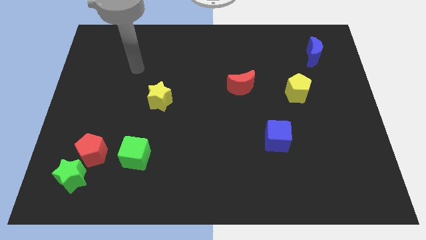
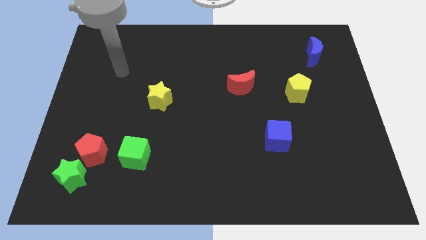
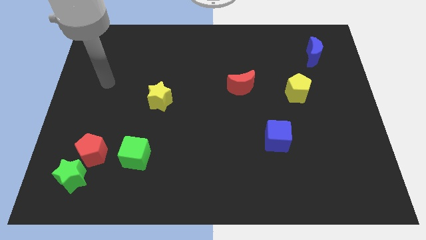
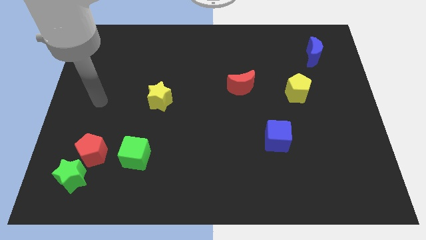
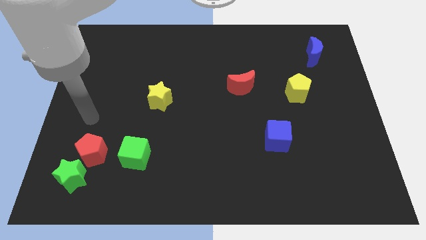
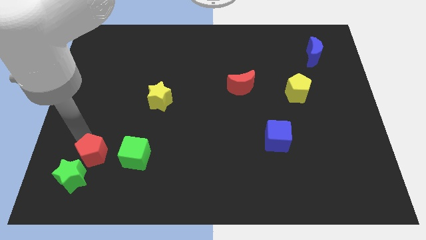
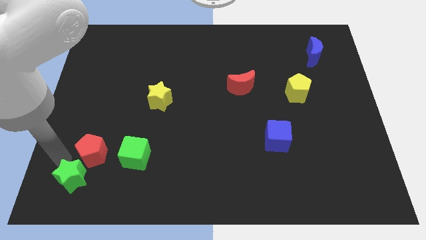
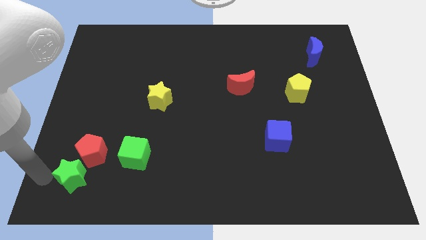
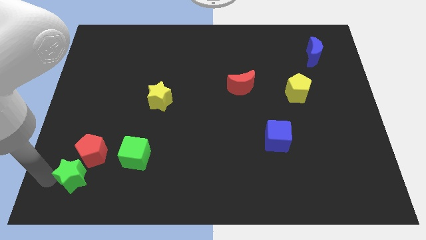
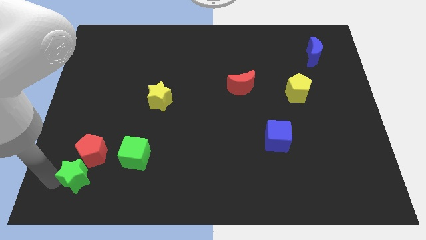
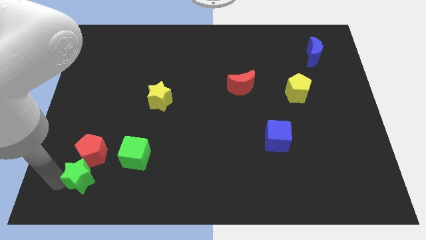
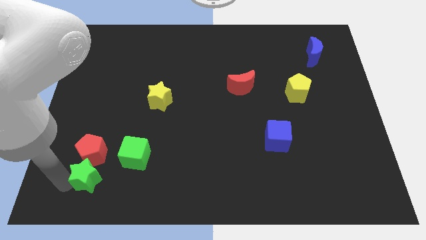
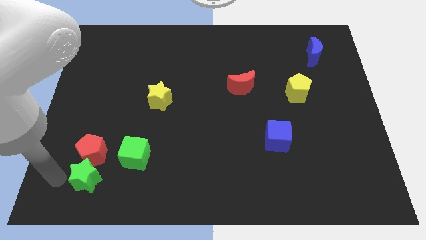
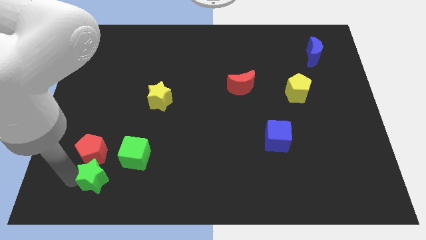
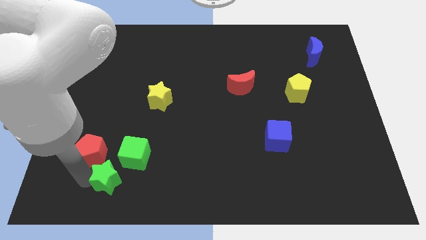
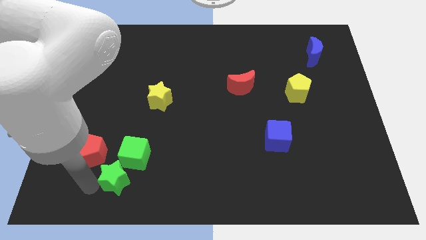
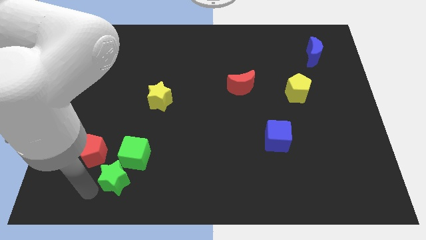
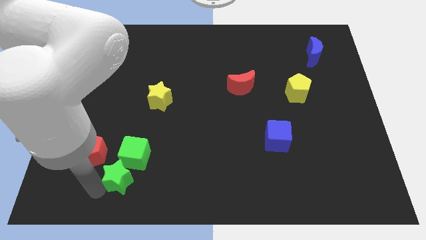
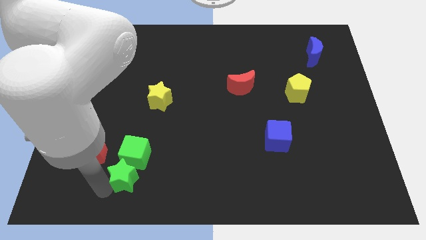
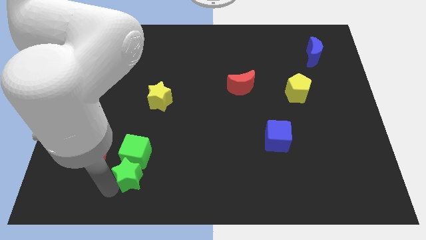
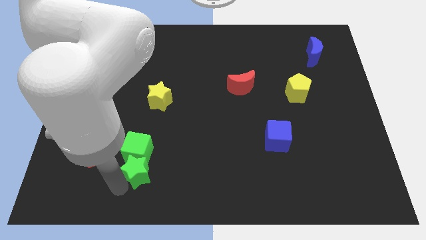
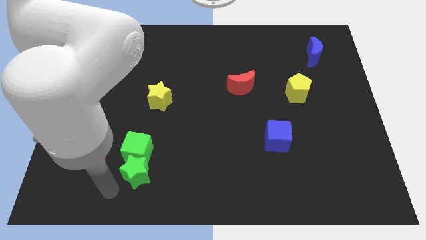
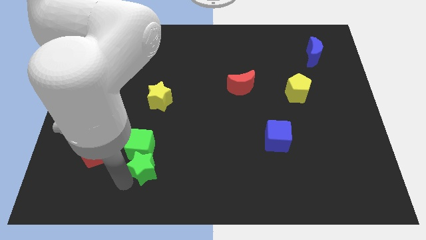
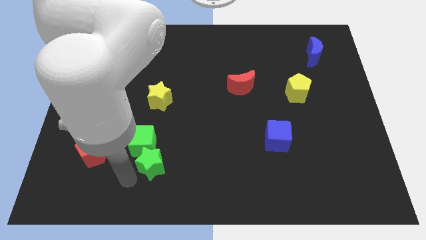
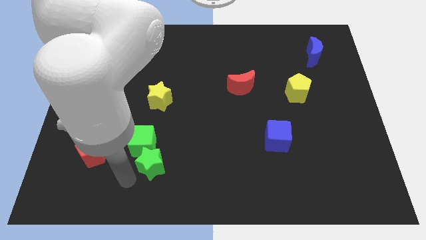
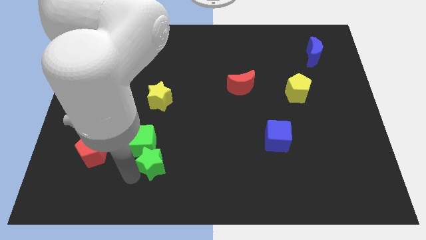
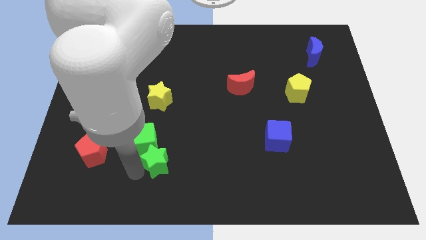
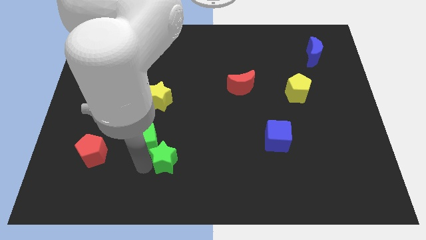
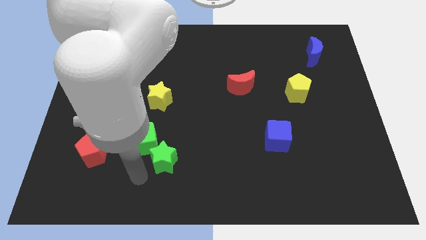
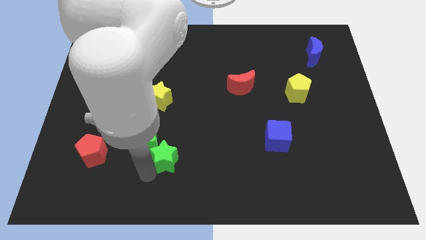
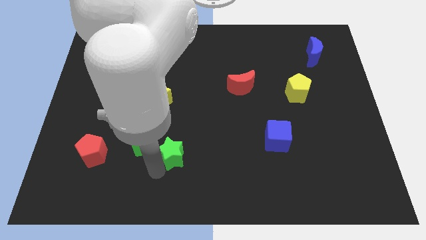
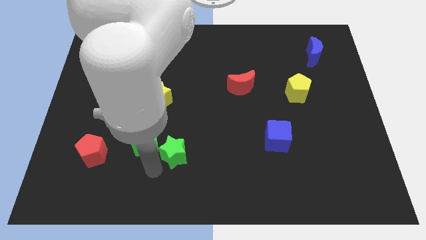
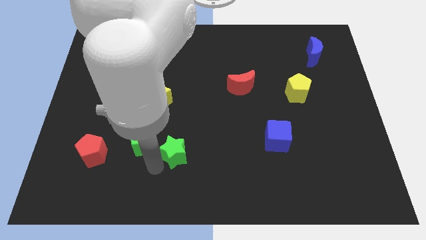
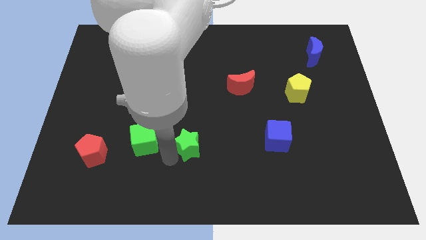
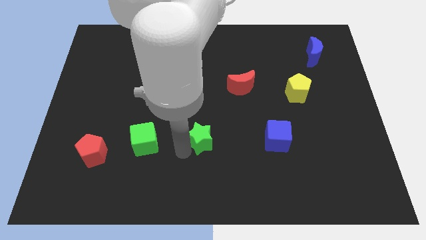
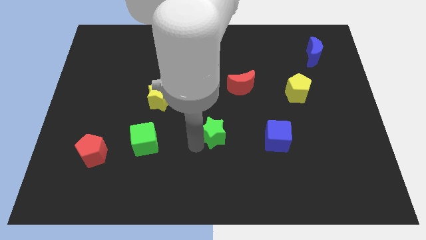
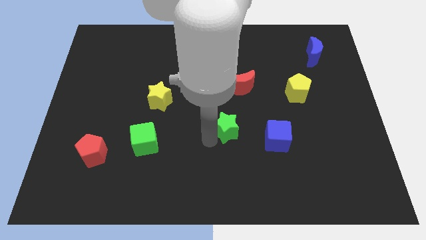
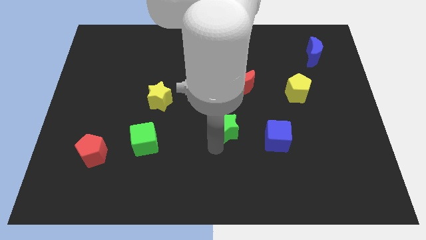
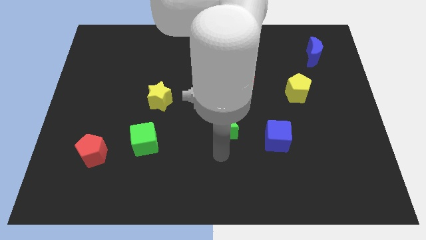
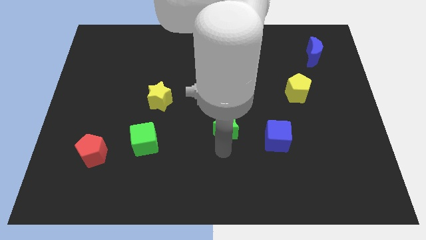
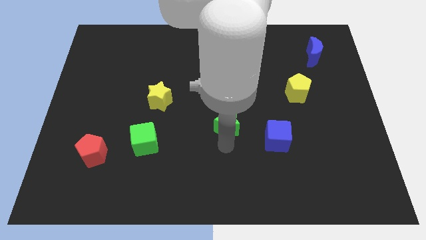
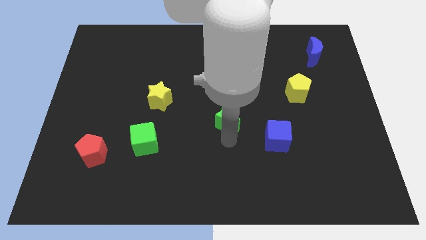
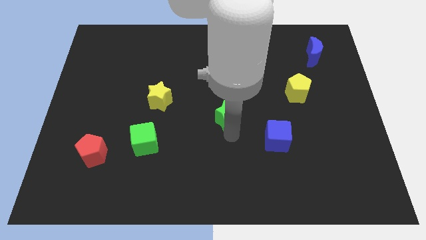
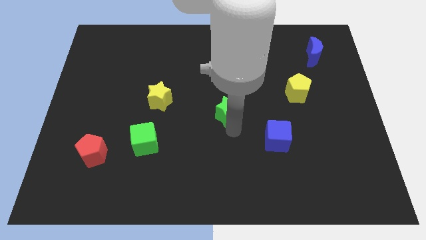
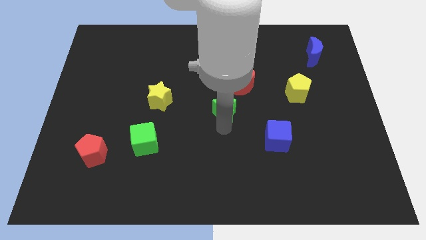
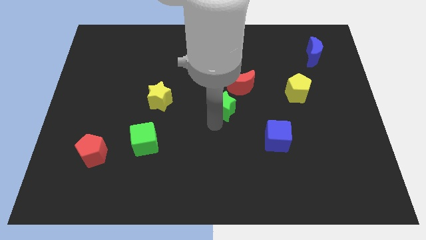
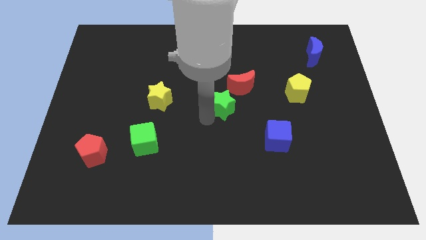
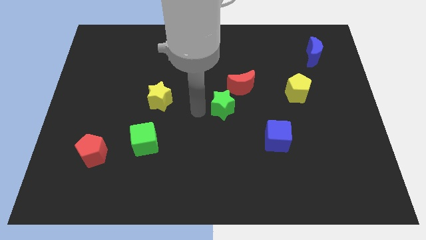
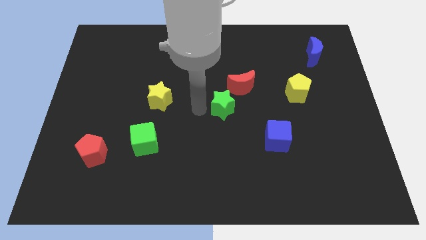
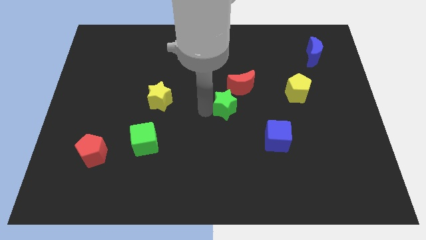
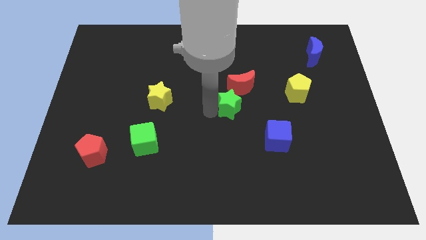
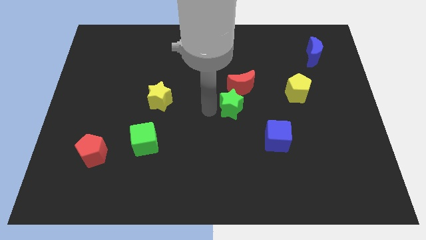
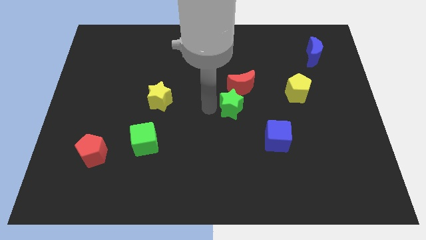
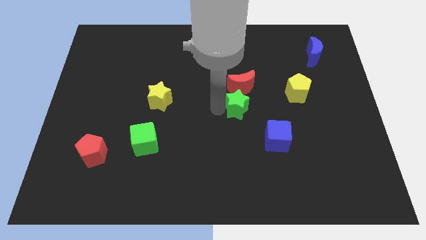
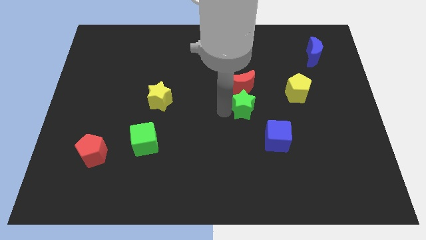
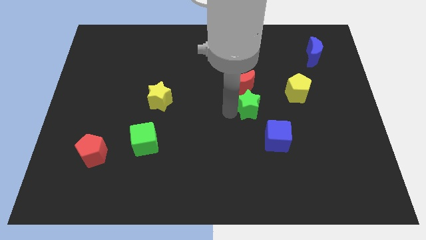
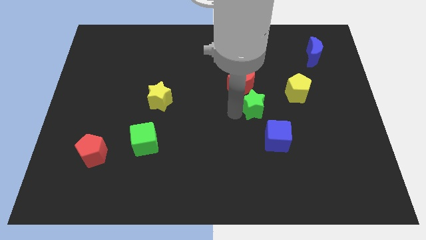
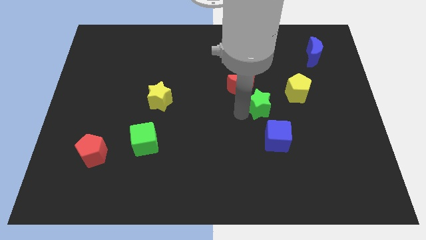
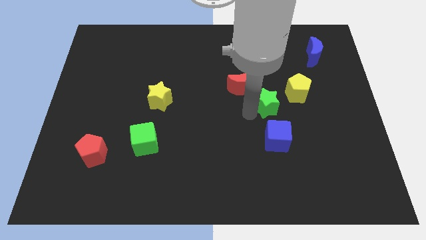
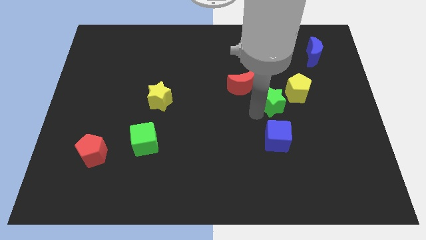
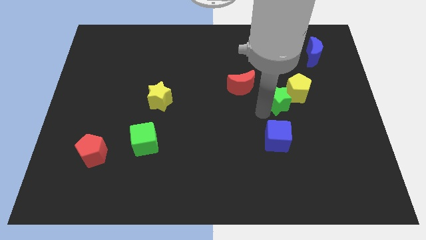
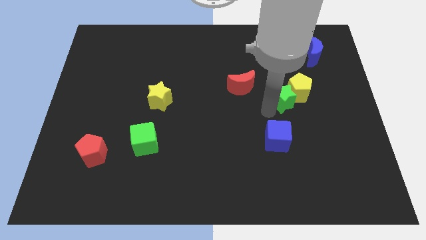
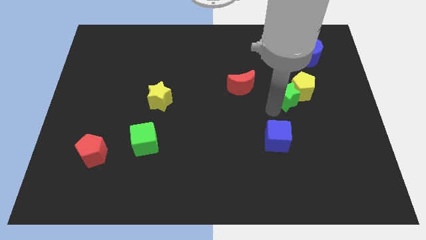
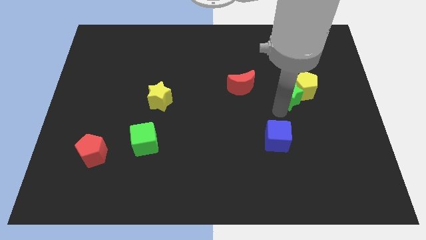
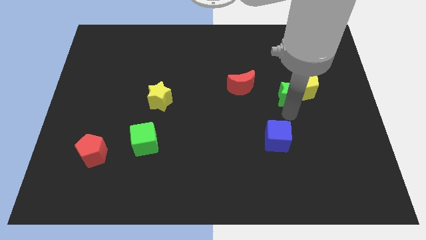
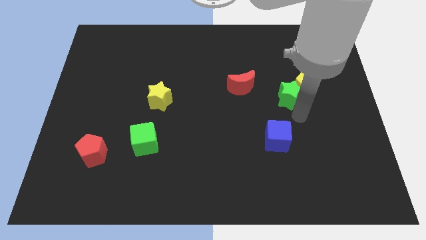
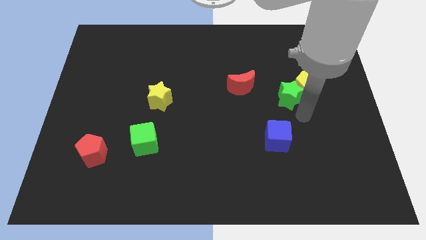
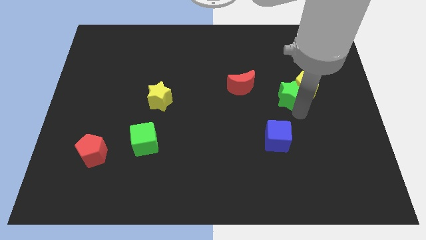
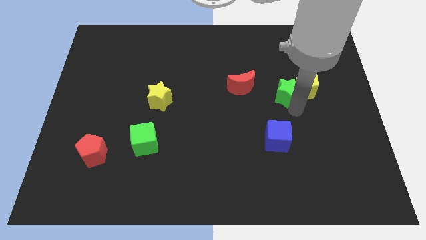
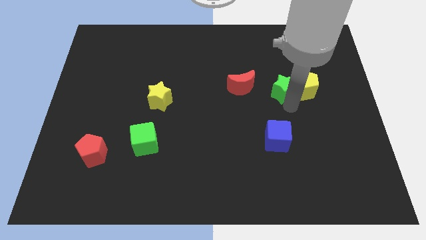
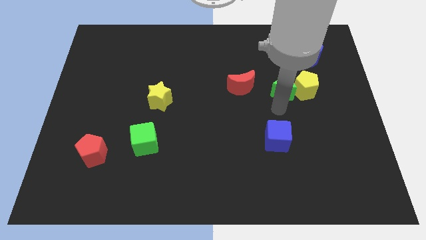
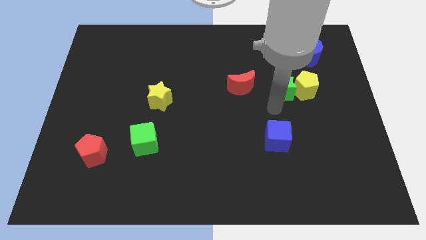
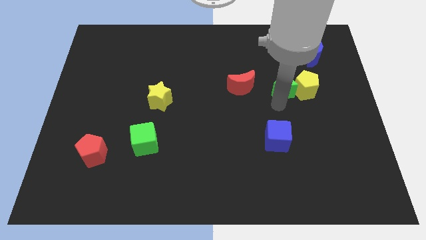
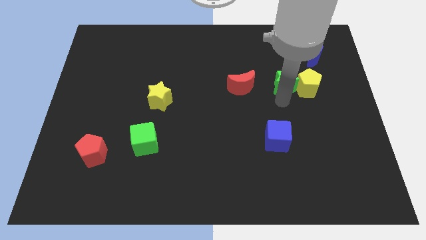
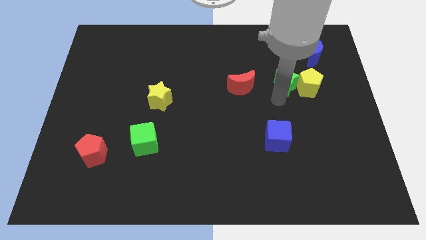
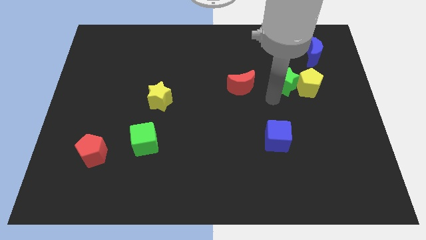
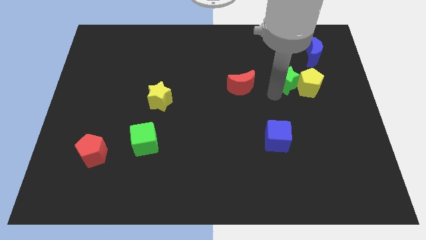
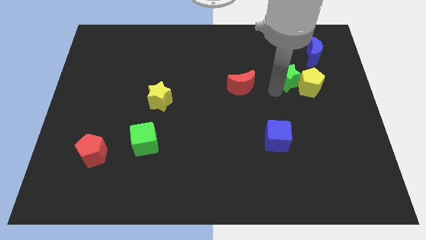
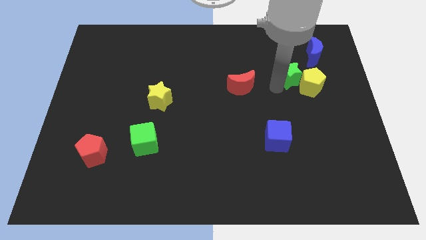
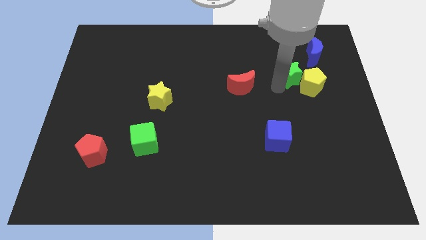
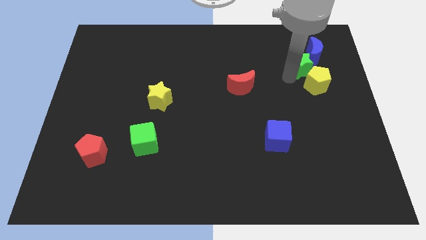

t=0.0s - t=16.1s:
put the green star close to the blue moon
